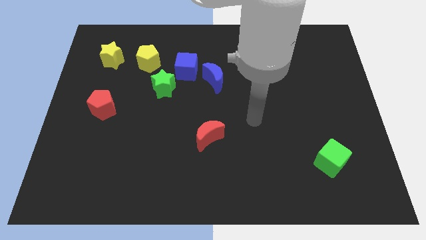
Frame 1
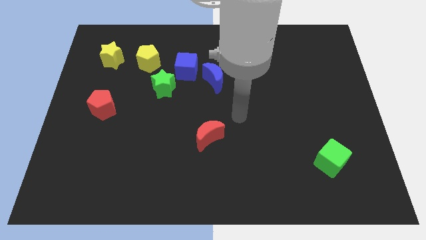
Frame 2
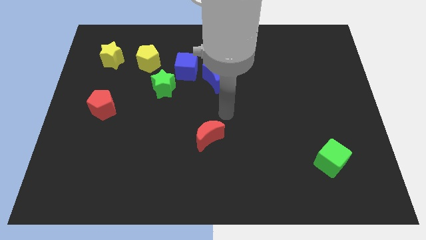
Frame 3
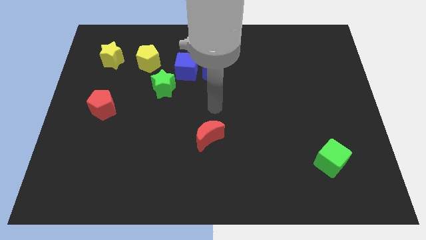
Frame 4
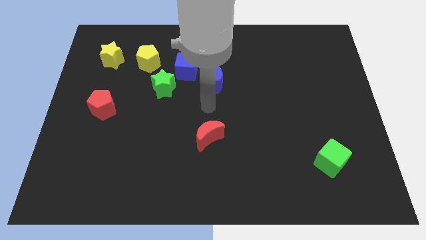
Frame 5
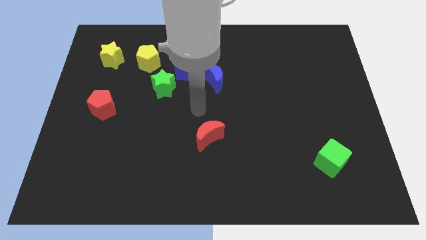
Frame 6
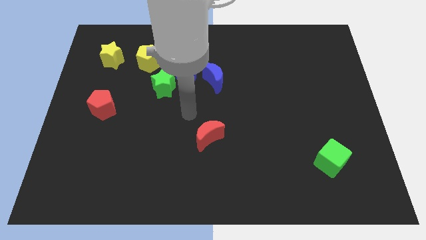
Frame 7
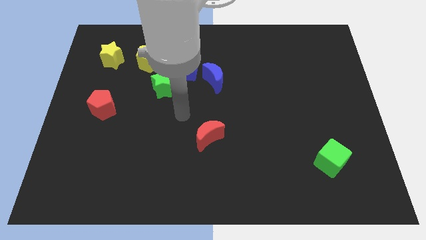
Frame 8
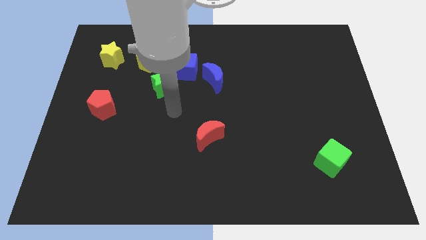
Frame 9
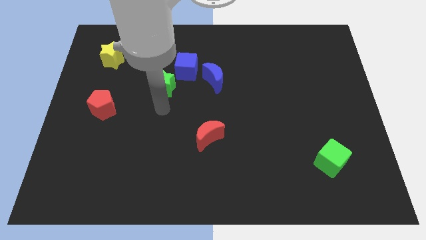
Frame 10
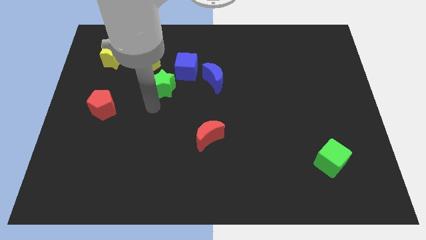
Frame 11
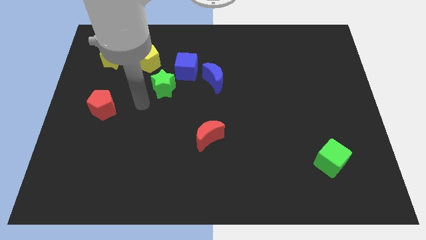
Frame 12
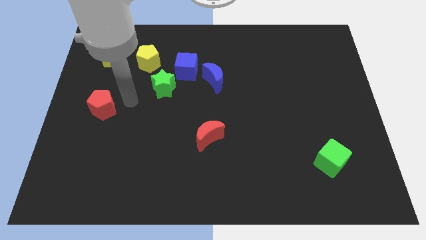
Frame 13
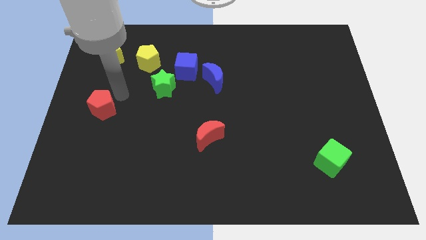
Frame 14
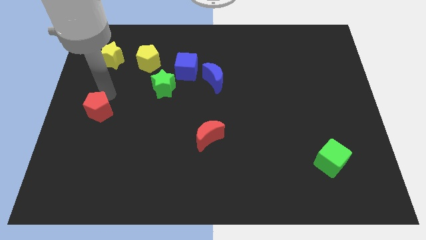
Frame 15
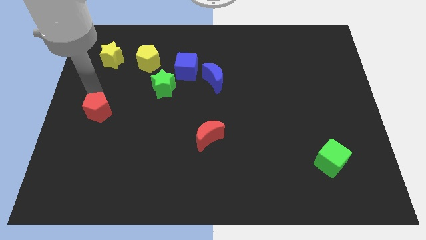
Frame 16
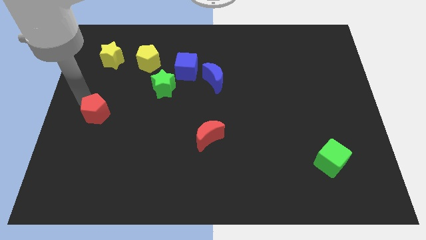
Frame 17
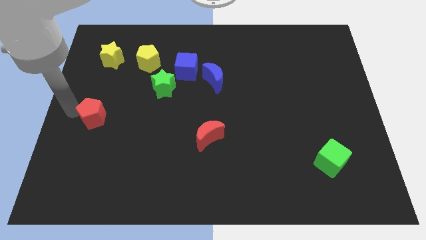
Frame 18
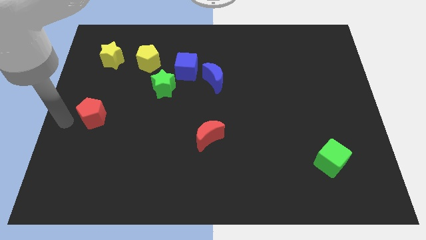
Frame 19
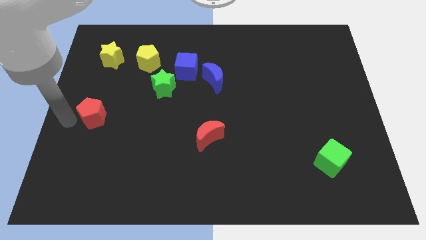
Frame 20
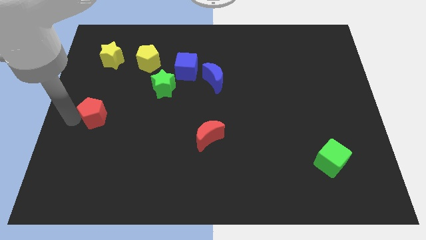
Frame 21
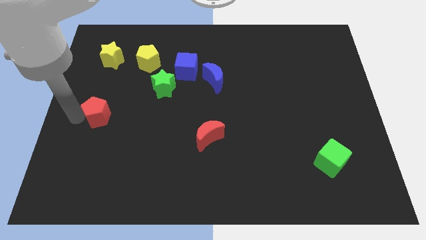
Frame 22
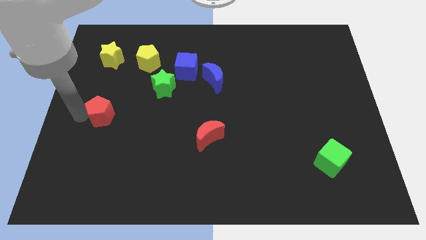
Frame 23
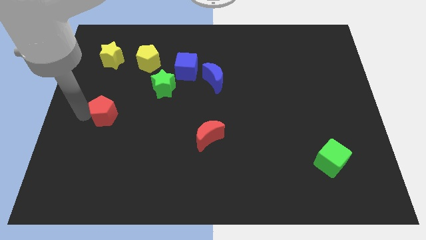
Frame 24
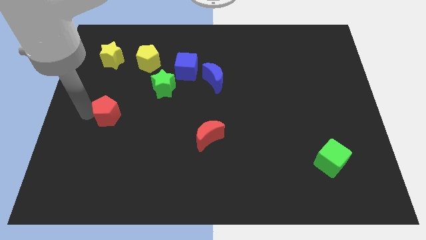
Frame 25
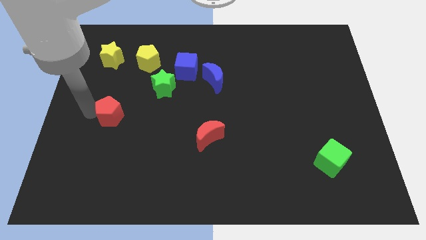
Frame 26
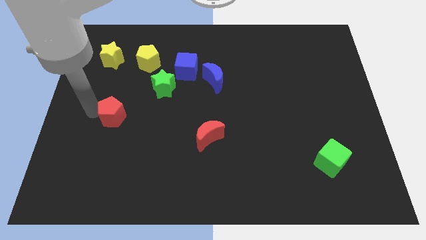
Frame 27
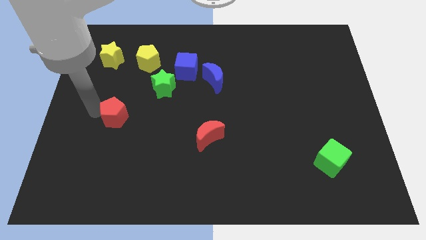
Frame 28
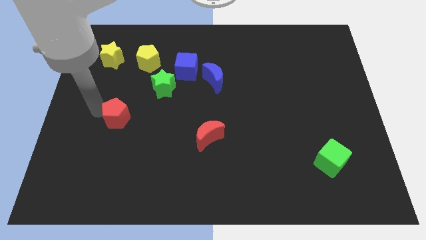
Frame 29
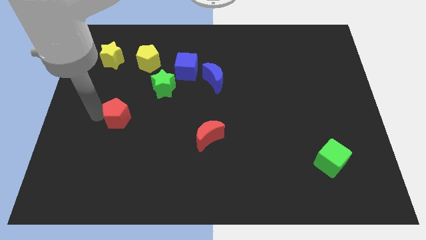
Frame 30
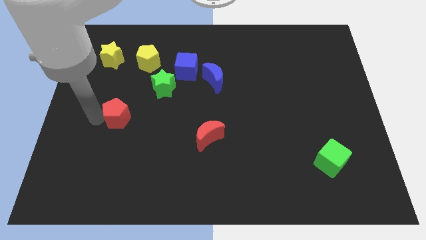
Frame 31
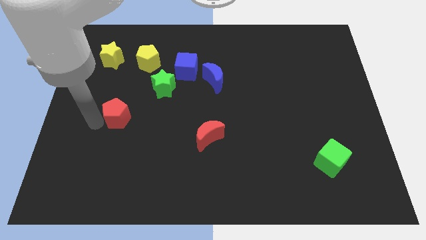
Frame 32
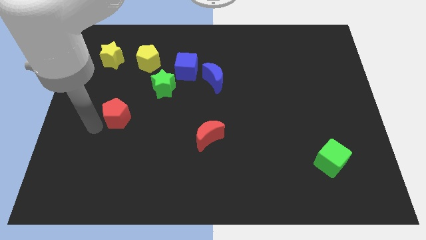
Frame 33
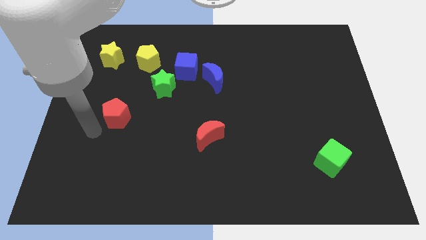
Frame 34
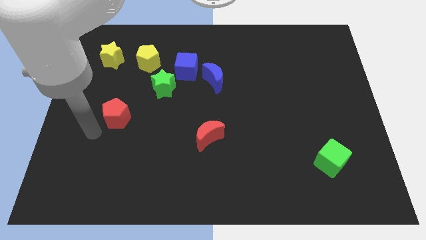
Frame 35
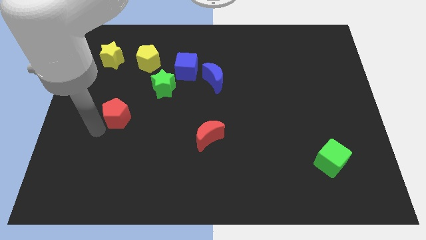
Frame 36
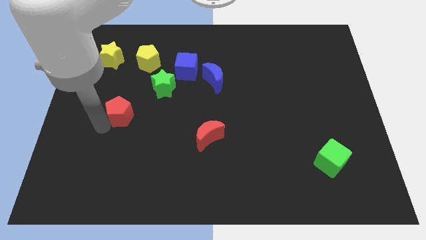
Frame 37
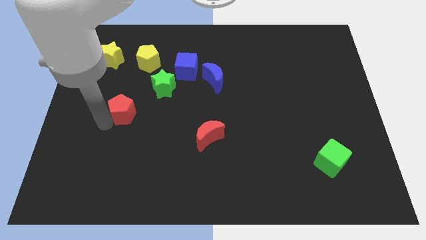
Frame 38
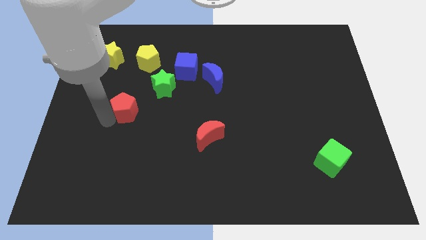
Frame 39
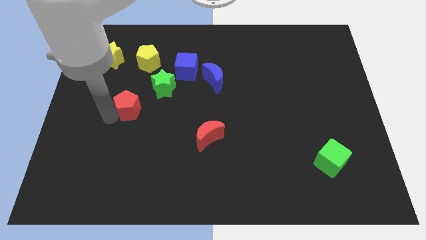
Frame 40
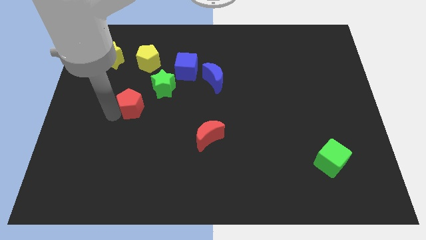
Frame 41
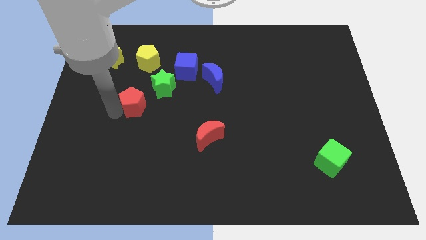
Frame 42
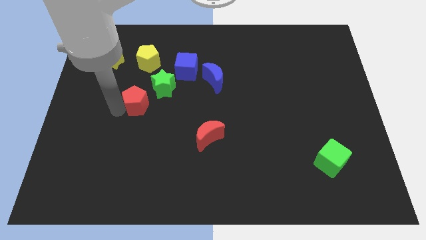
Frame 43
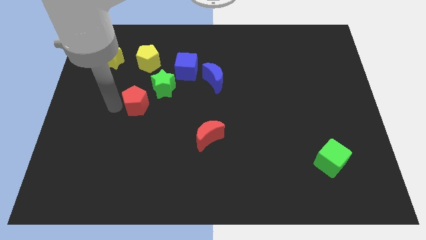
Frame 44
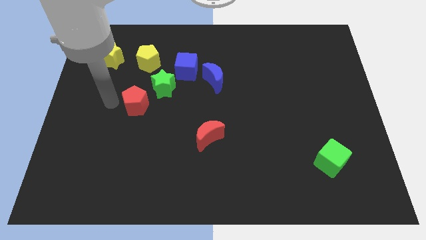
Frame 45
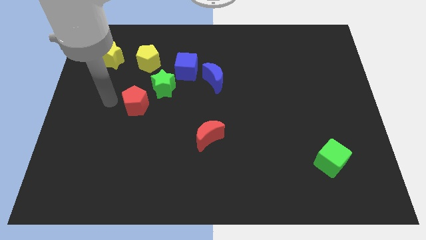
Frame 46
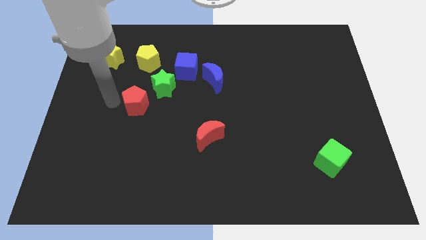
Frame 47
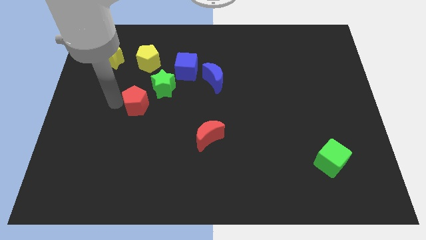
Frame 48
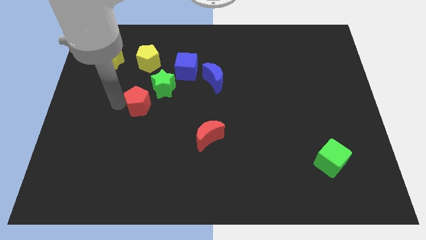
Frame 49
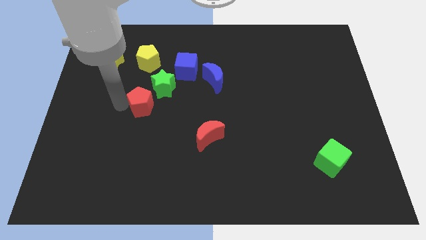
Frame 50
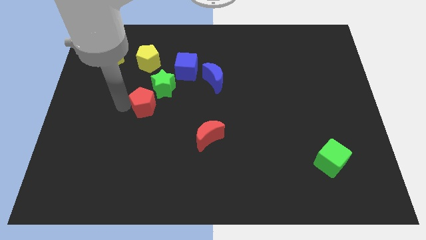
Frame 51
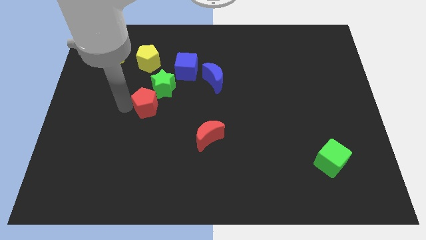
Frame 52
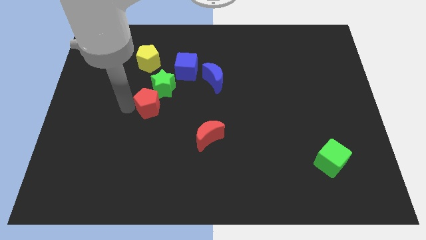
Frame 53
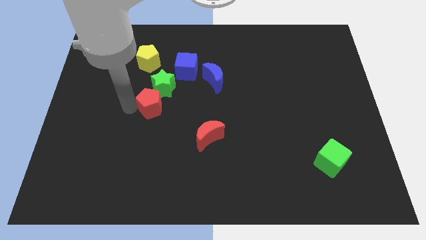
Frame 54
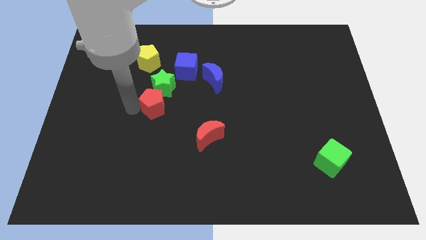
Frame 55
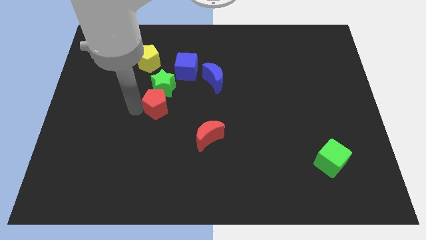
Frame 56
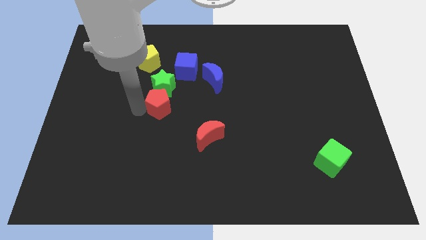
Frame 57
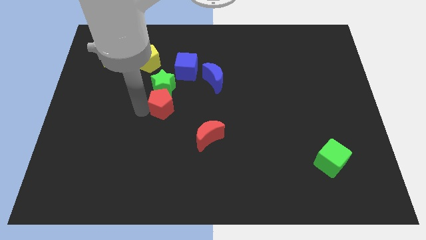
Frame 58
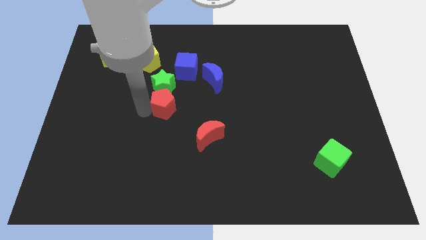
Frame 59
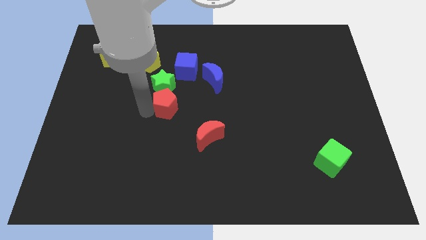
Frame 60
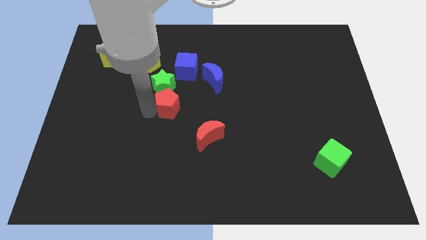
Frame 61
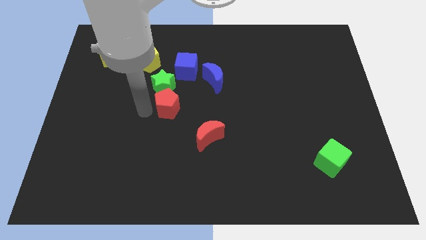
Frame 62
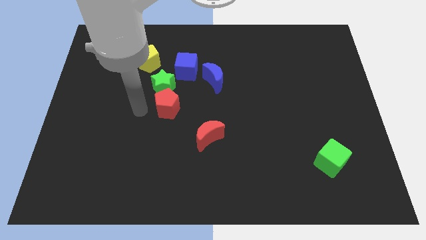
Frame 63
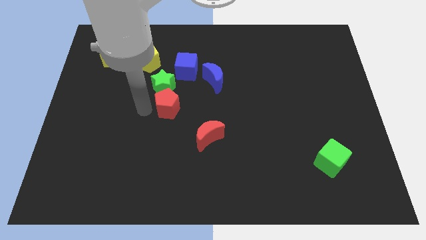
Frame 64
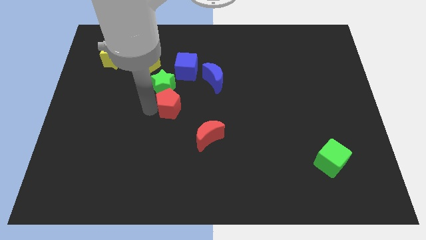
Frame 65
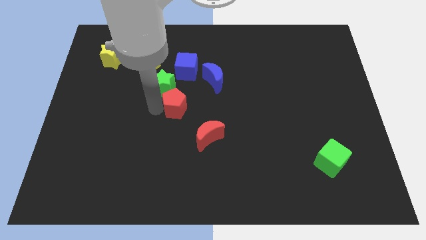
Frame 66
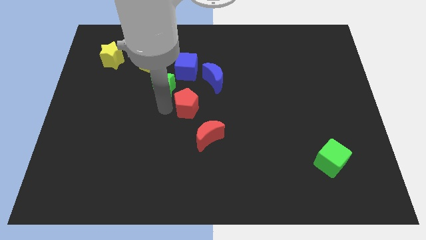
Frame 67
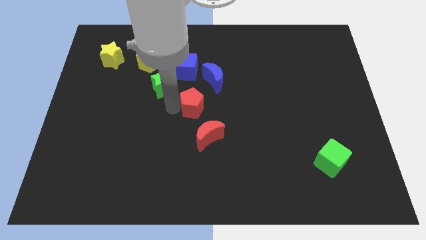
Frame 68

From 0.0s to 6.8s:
slide the red pentagon right

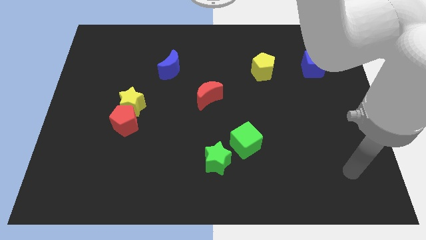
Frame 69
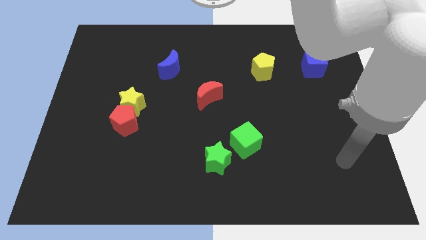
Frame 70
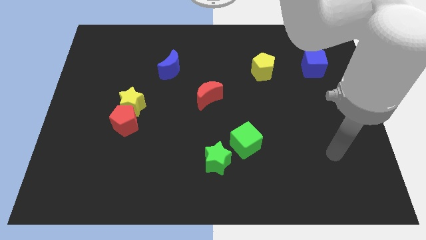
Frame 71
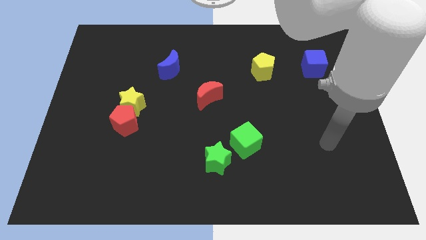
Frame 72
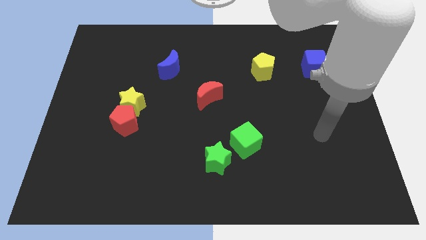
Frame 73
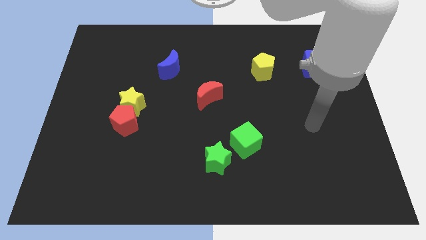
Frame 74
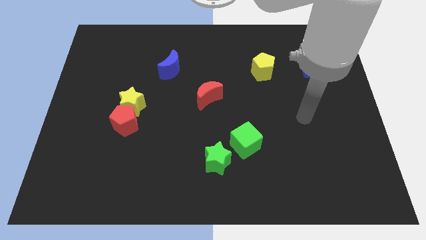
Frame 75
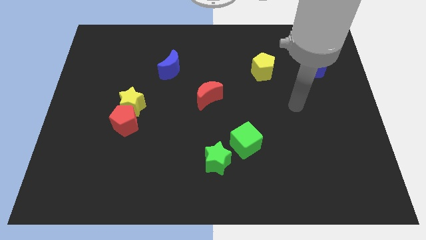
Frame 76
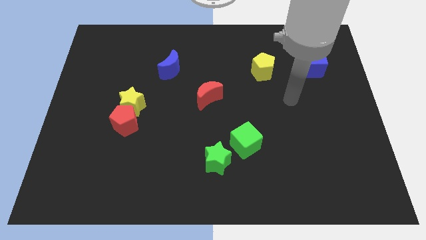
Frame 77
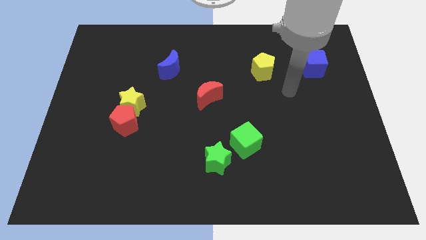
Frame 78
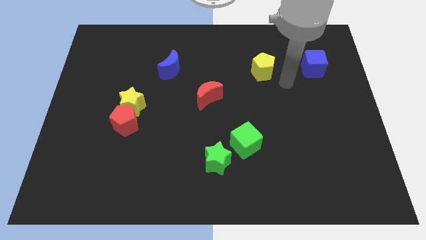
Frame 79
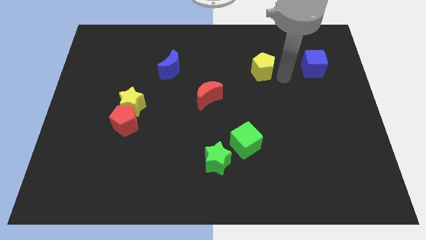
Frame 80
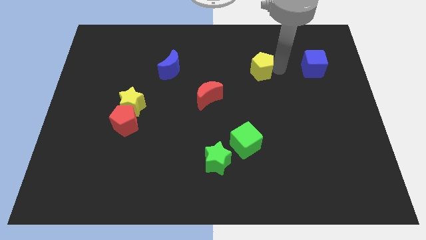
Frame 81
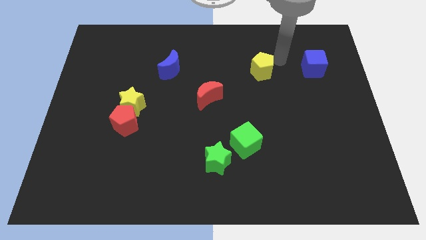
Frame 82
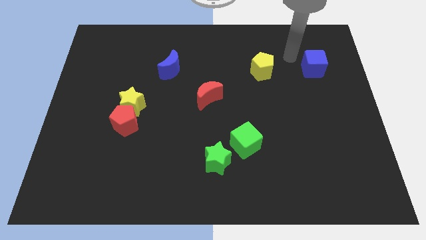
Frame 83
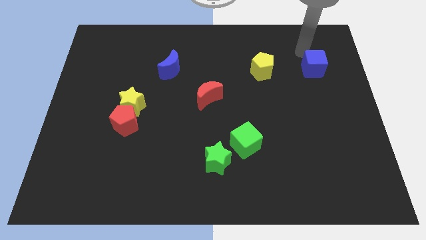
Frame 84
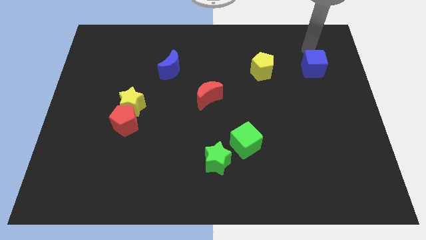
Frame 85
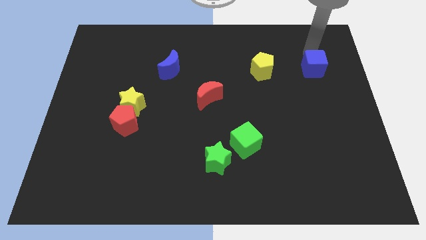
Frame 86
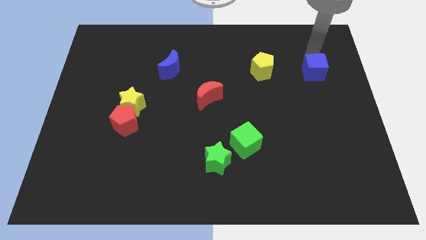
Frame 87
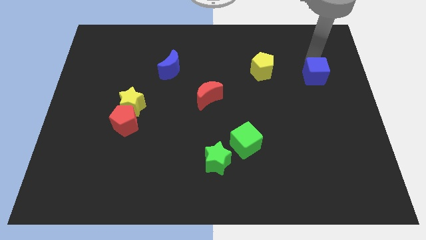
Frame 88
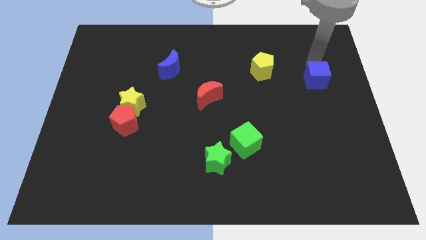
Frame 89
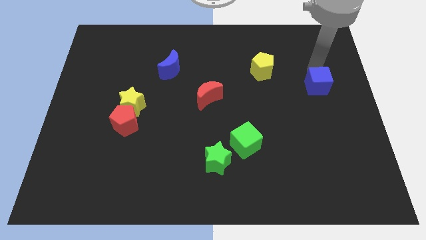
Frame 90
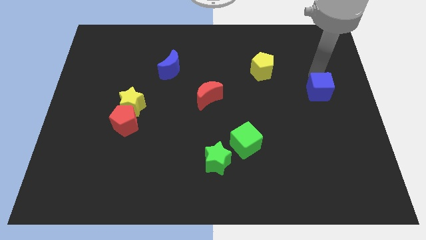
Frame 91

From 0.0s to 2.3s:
push the blue cube a little bit down
